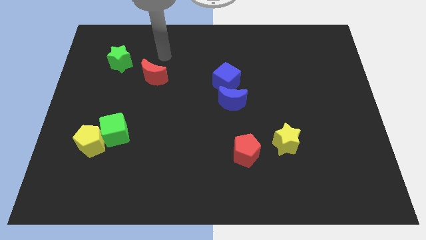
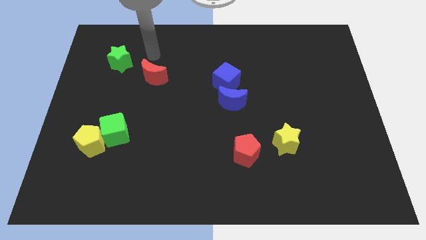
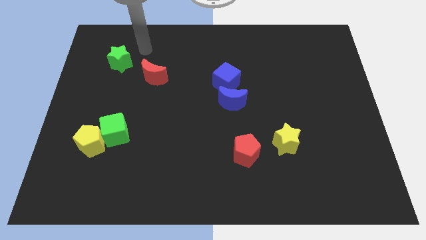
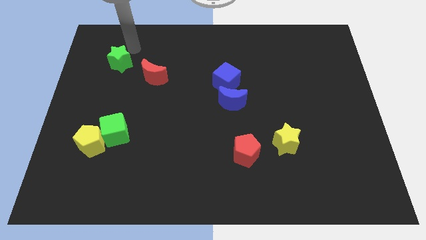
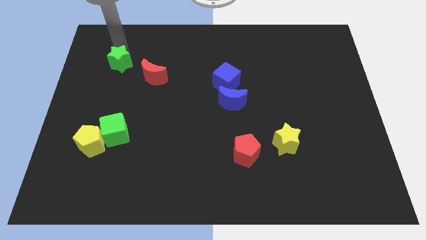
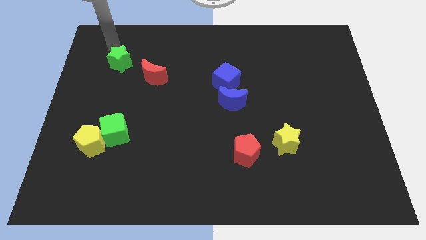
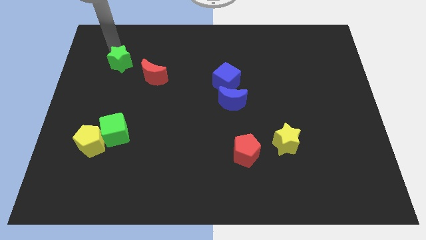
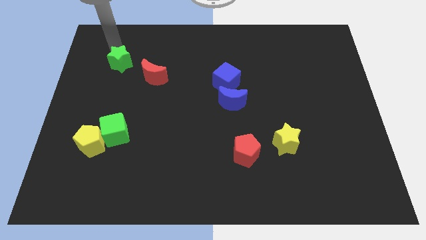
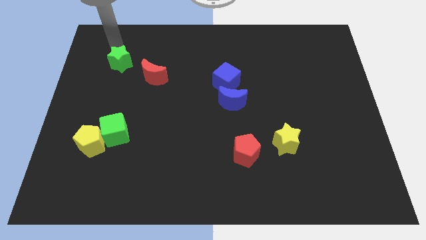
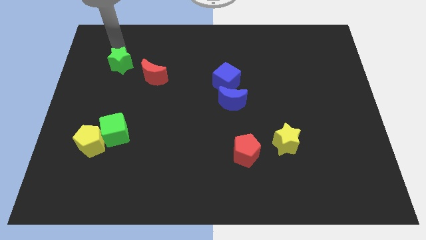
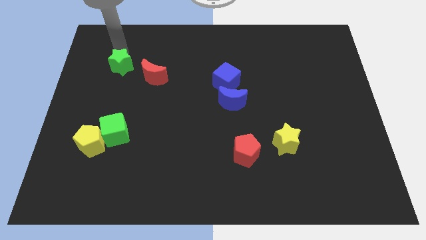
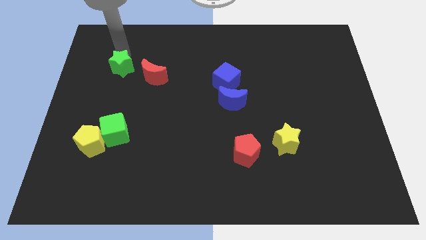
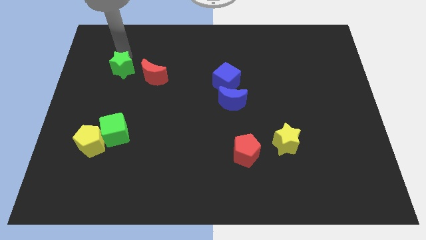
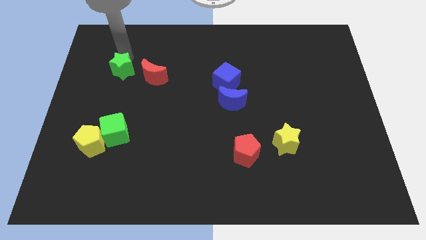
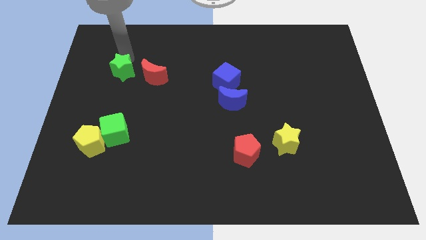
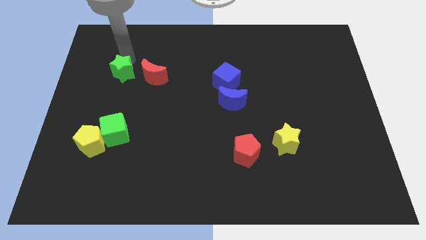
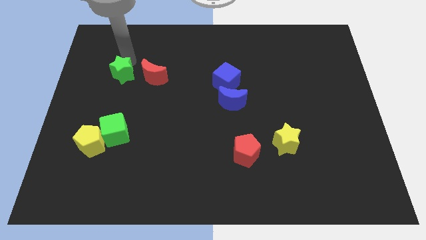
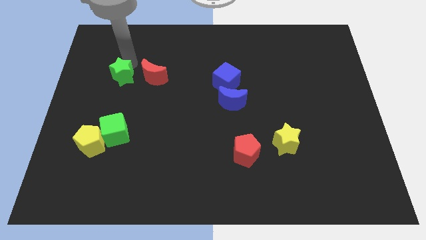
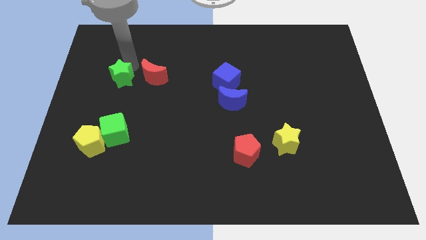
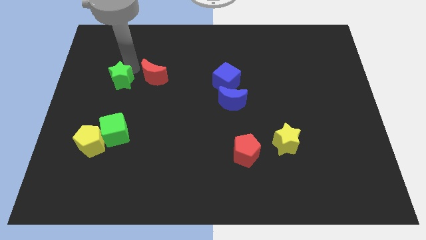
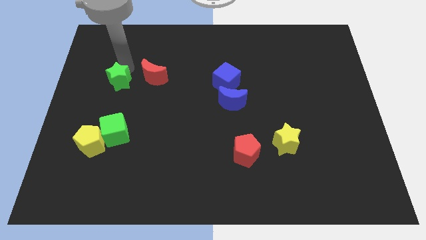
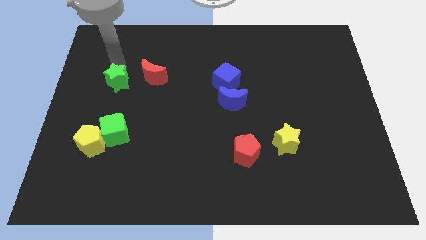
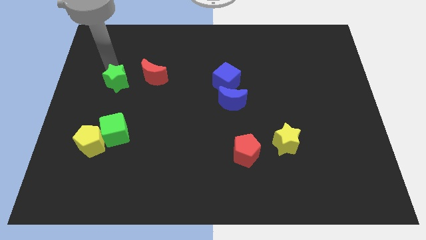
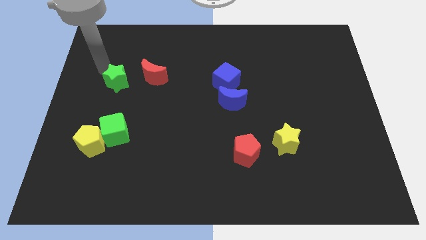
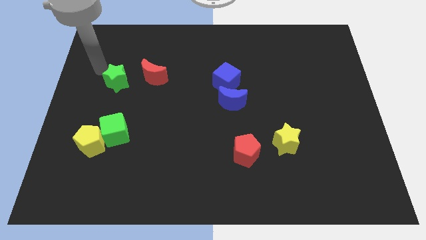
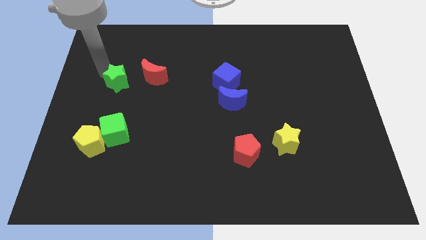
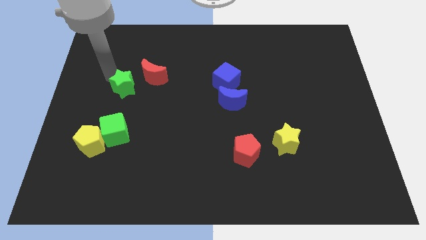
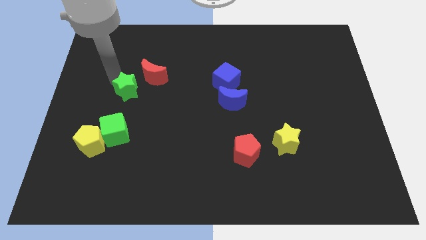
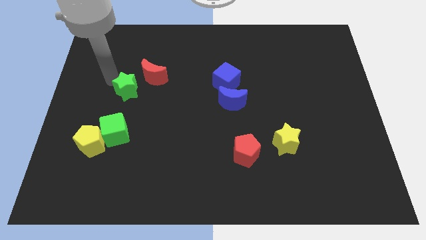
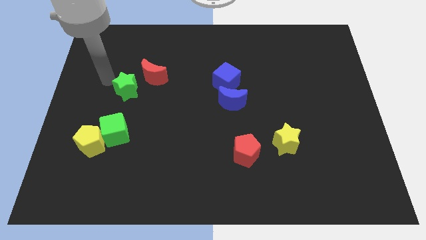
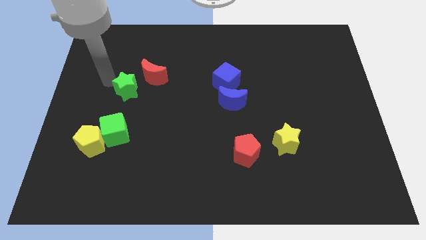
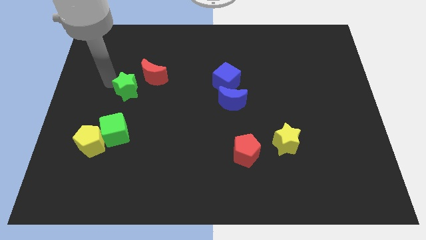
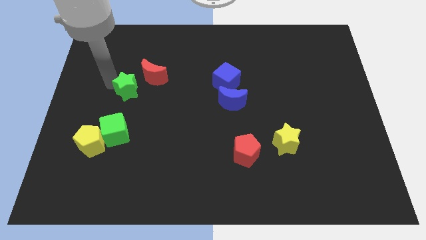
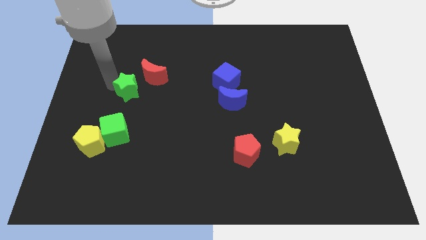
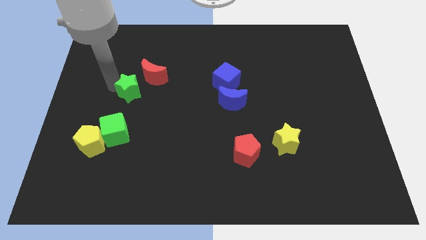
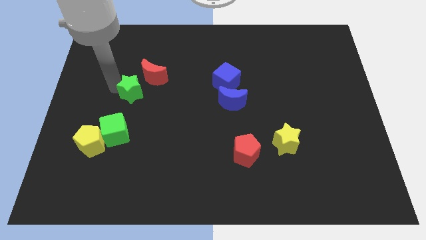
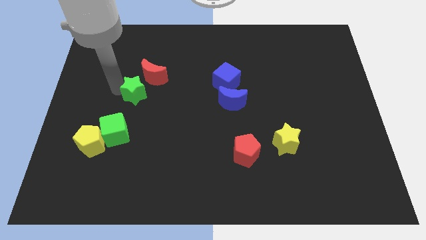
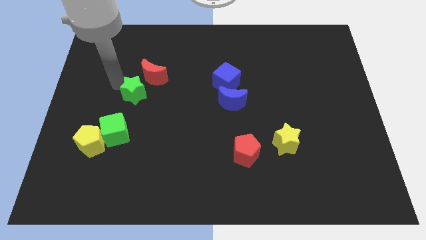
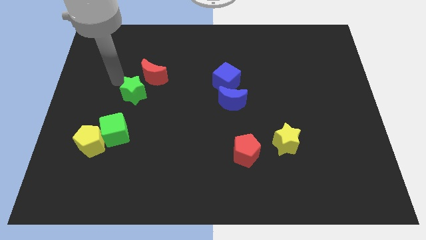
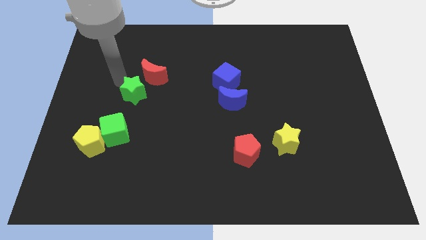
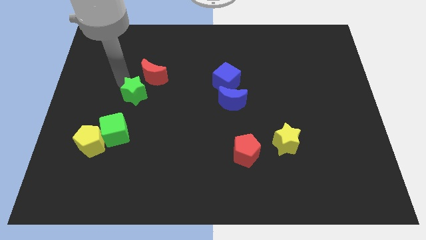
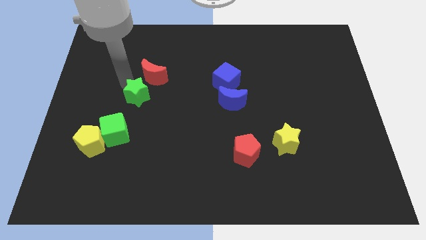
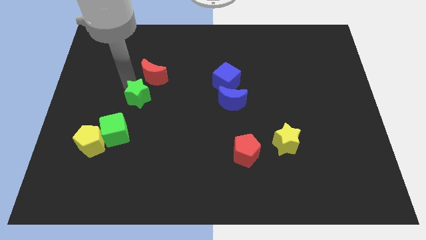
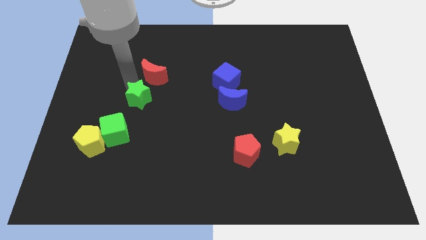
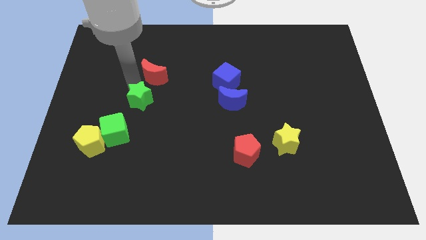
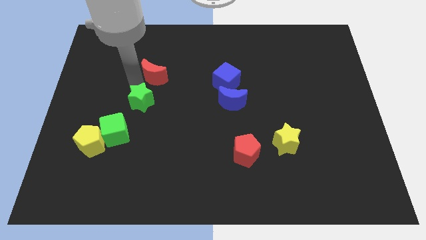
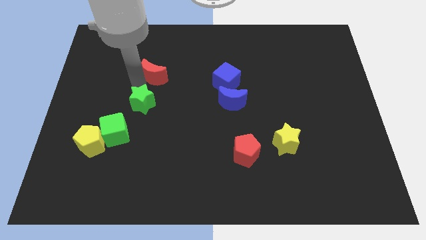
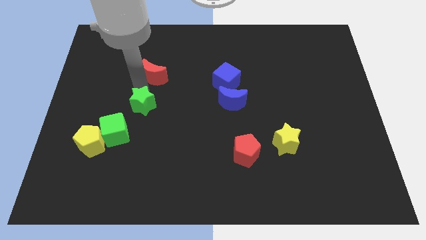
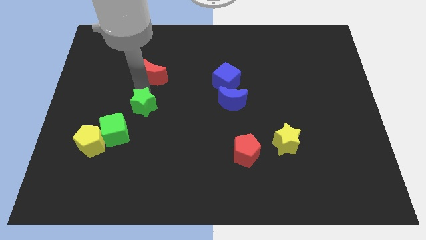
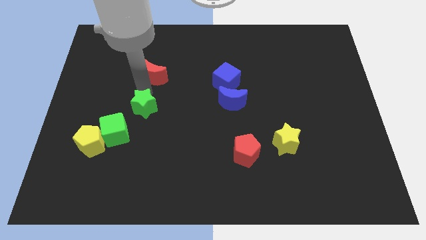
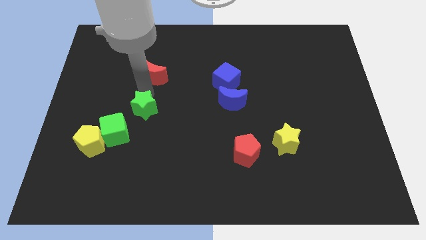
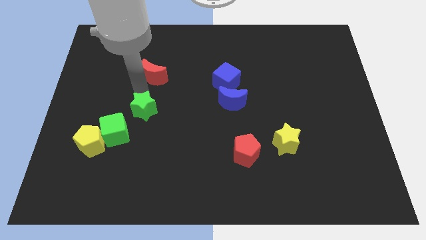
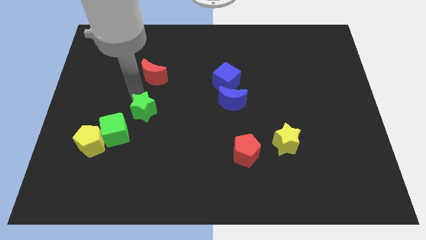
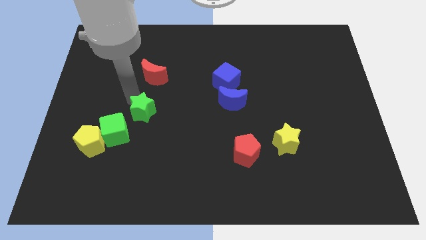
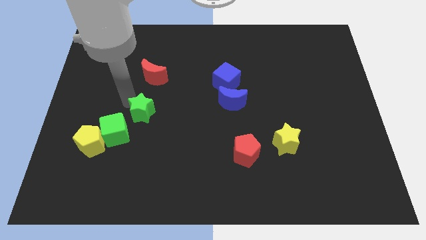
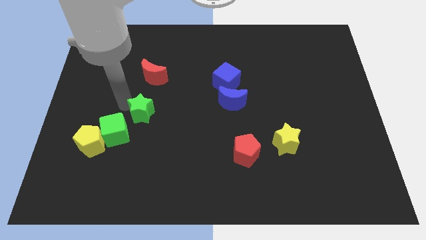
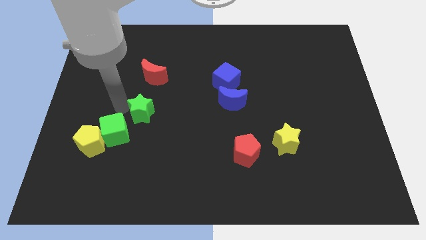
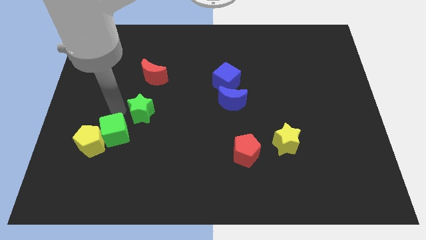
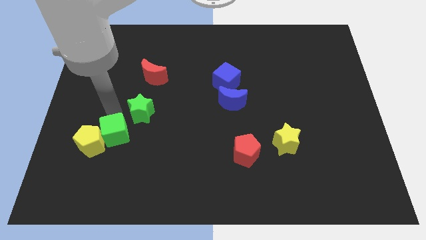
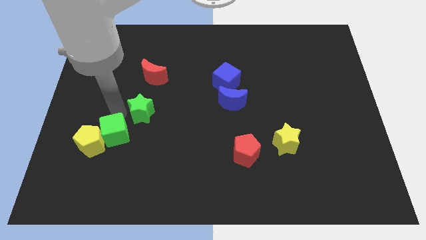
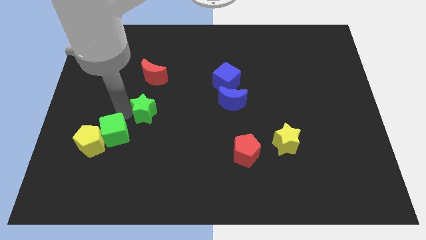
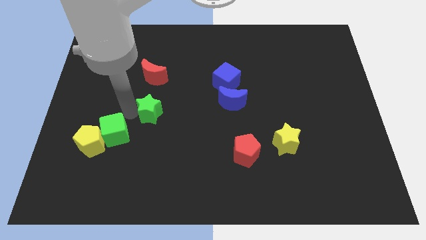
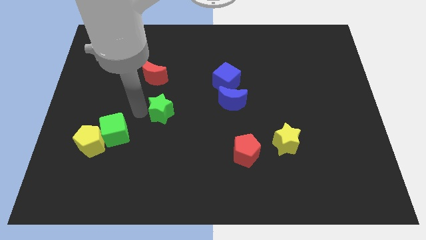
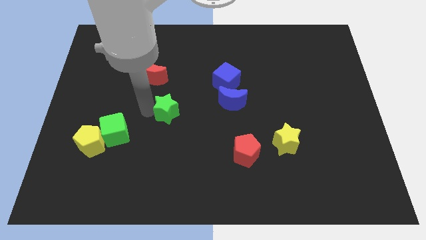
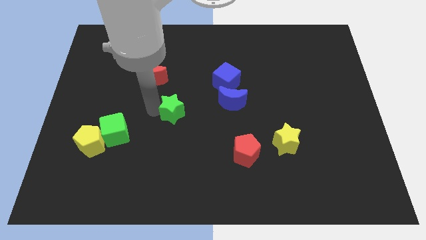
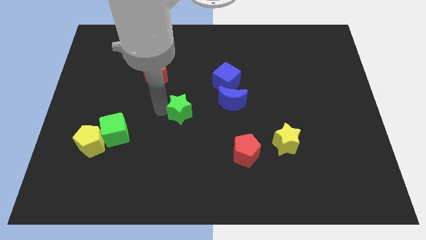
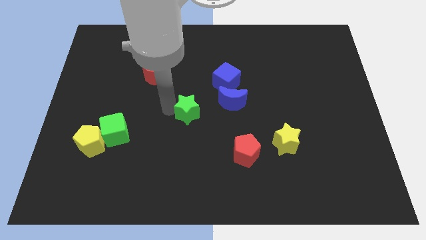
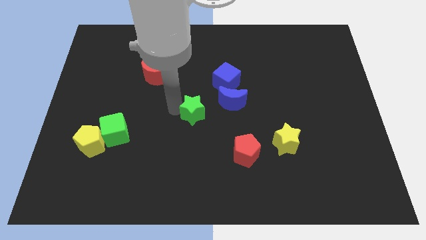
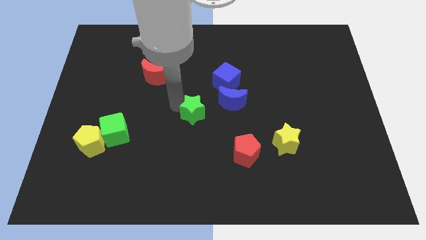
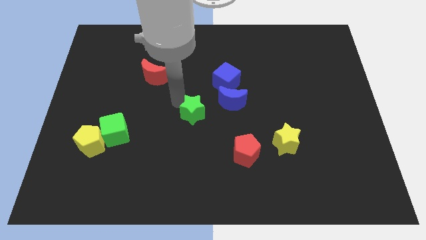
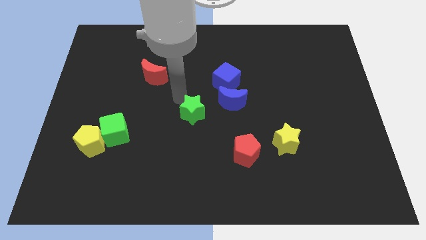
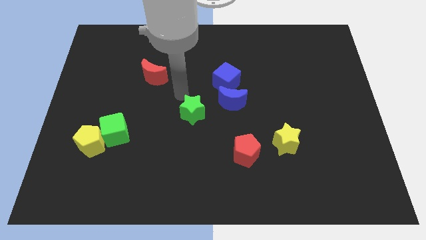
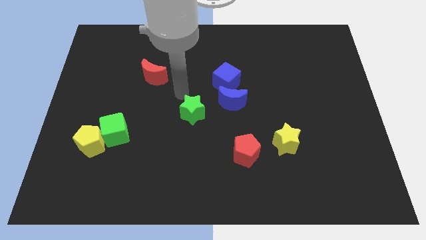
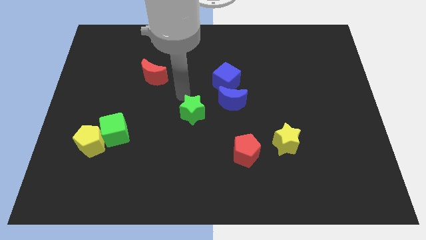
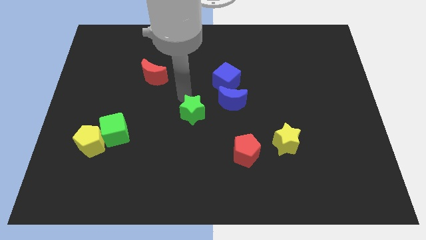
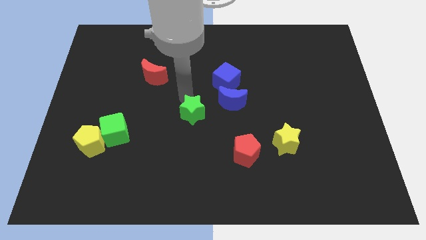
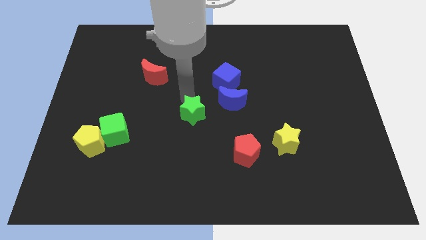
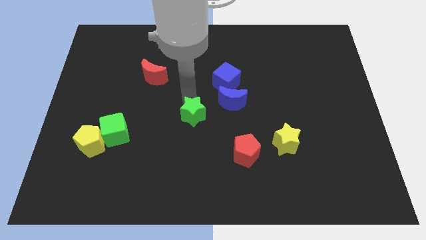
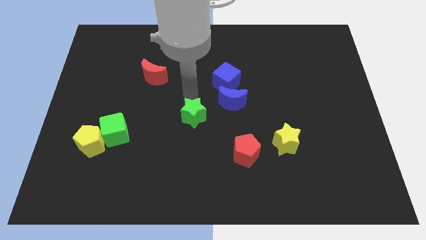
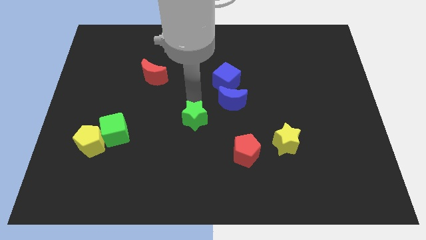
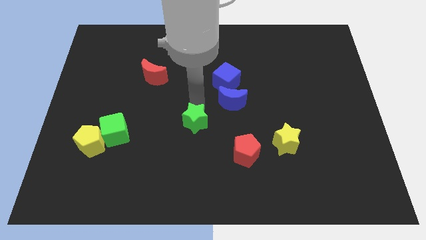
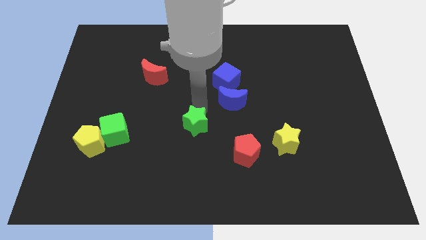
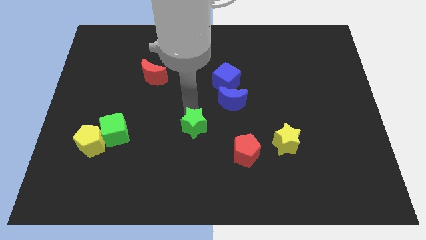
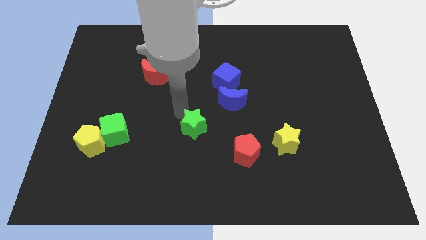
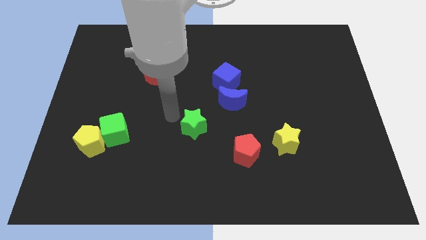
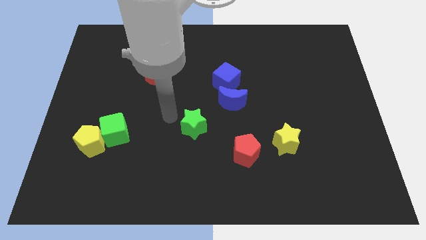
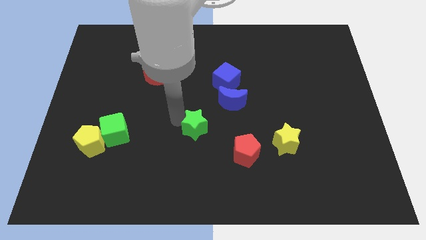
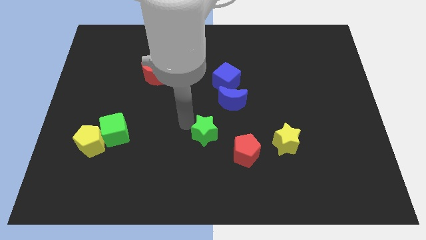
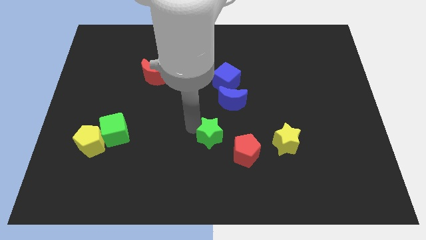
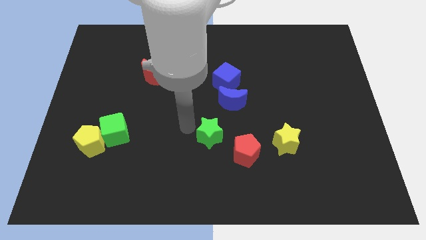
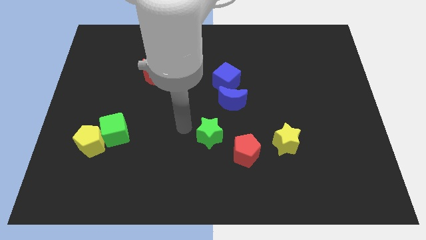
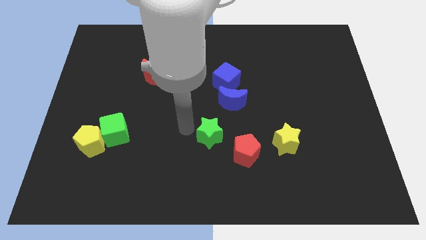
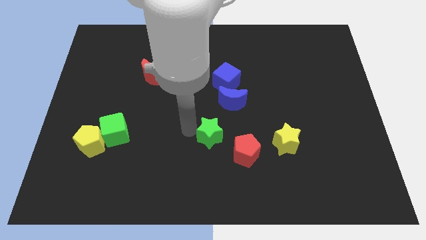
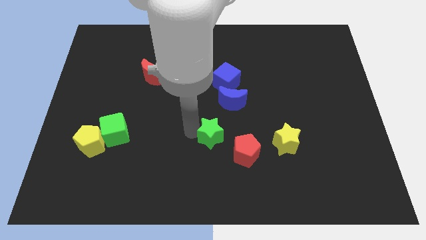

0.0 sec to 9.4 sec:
push the green star just left of the yellow star
